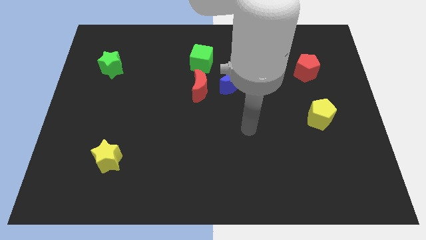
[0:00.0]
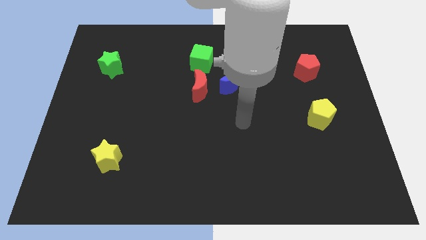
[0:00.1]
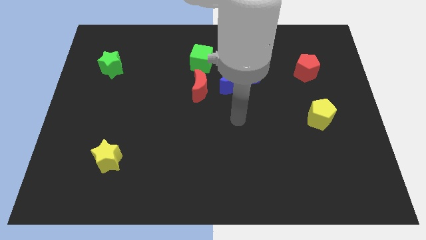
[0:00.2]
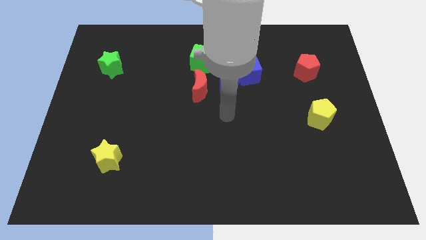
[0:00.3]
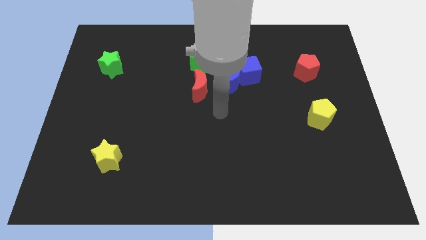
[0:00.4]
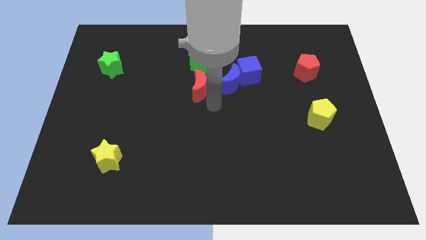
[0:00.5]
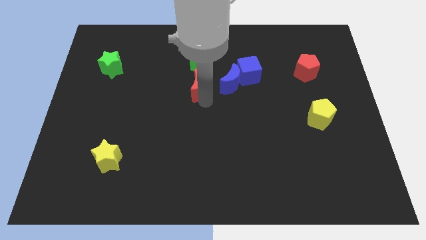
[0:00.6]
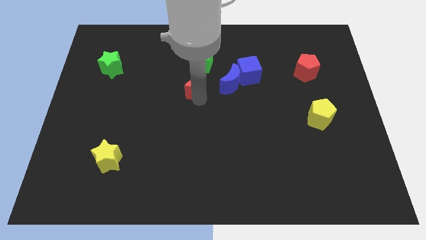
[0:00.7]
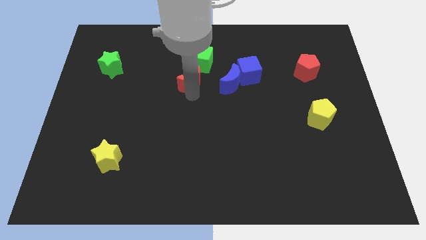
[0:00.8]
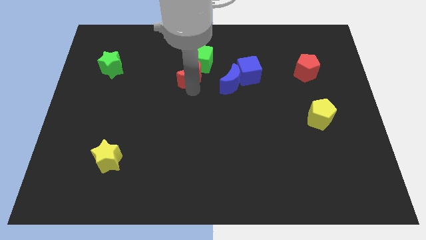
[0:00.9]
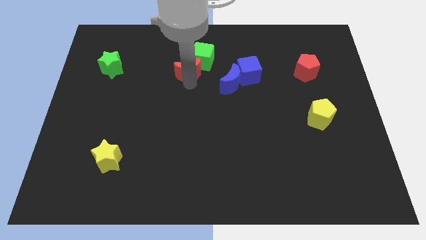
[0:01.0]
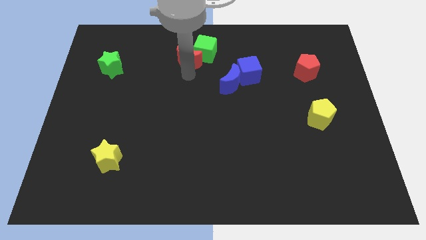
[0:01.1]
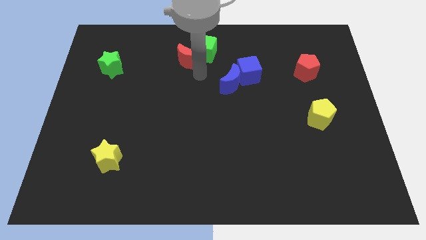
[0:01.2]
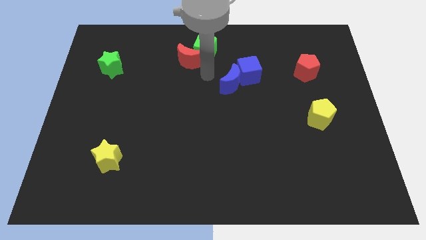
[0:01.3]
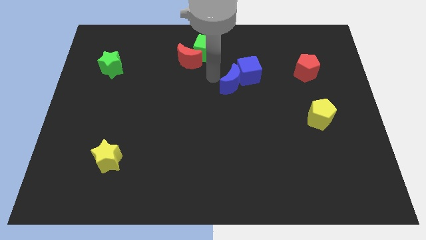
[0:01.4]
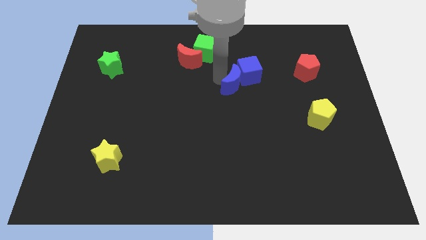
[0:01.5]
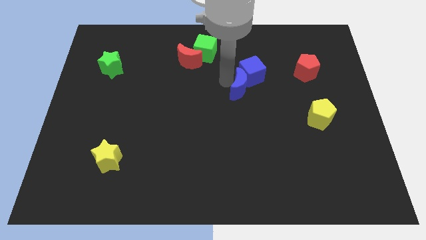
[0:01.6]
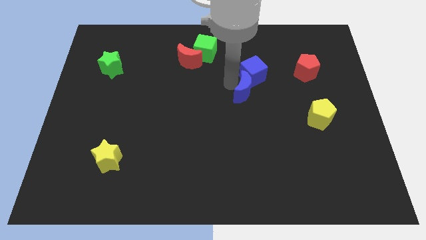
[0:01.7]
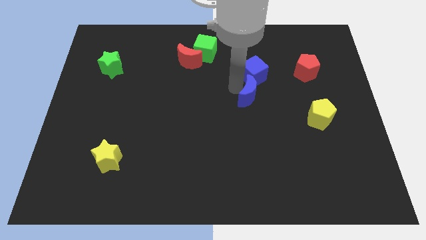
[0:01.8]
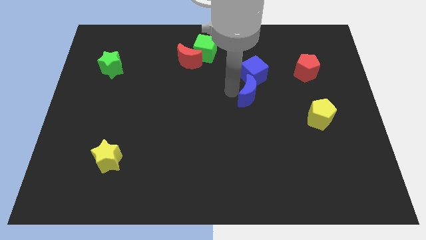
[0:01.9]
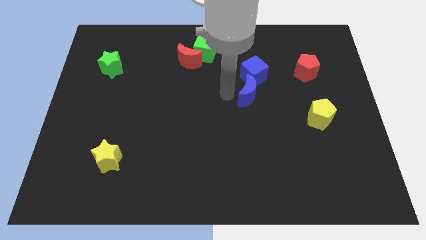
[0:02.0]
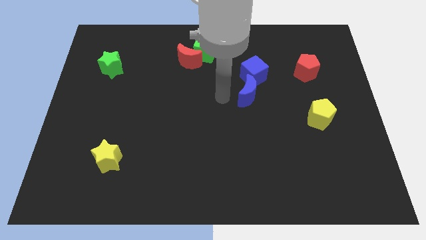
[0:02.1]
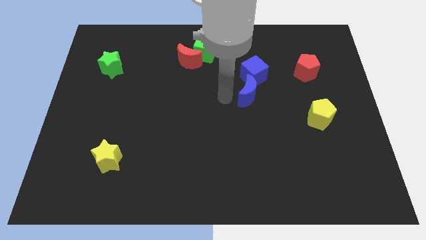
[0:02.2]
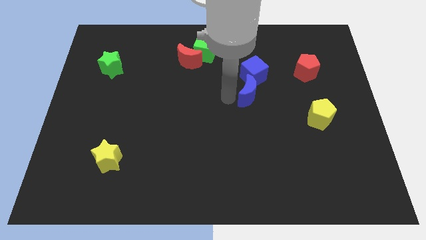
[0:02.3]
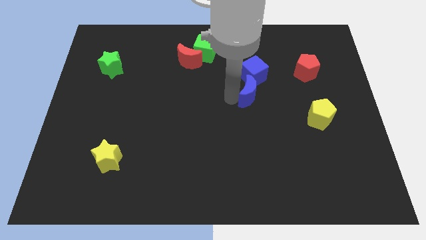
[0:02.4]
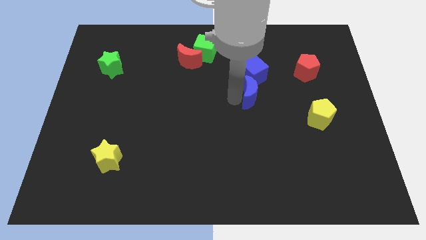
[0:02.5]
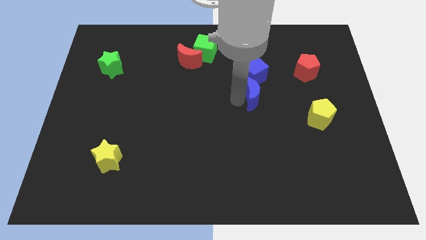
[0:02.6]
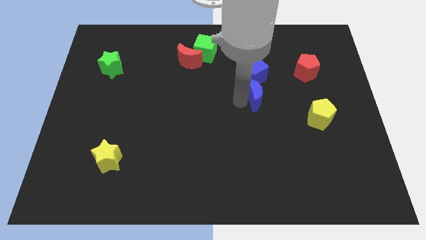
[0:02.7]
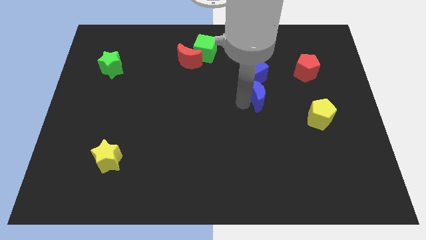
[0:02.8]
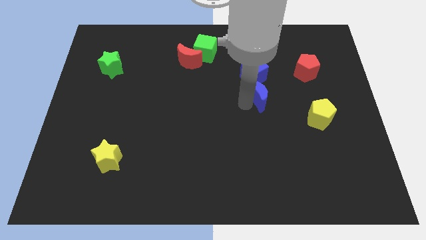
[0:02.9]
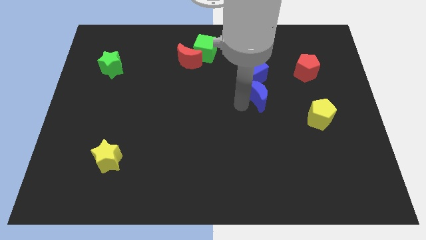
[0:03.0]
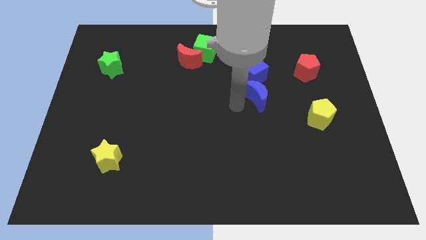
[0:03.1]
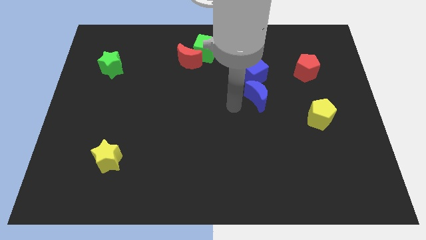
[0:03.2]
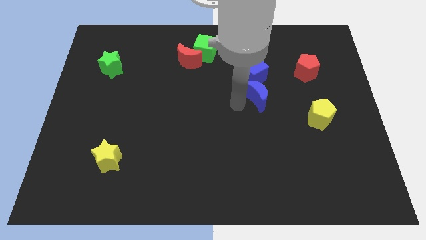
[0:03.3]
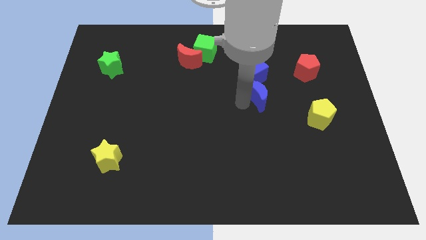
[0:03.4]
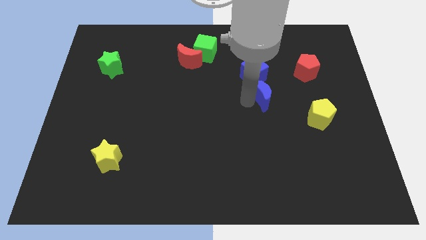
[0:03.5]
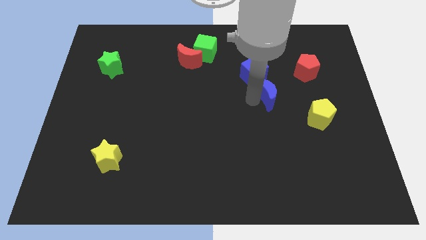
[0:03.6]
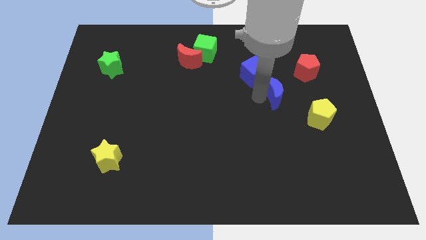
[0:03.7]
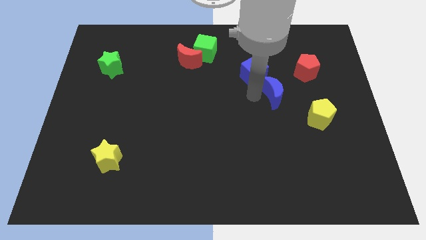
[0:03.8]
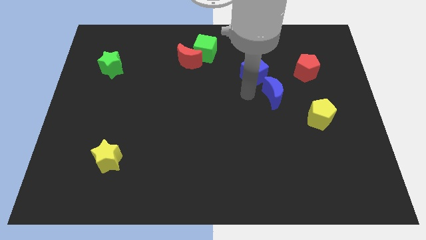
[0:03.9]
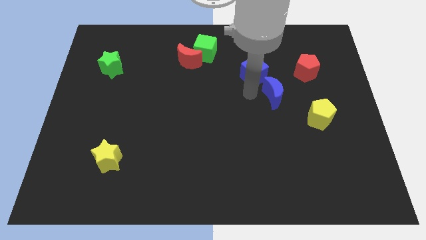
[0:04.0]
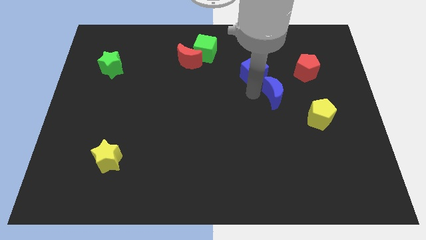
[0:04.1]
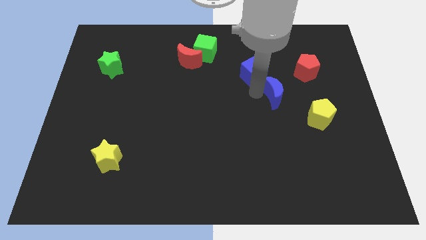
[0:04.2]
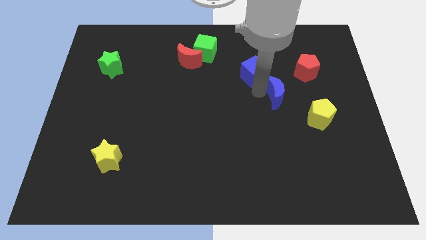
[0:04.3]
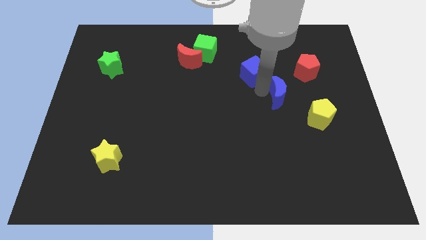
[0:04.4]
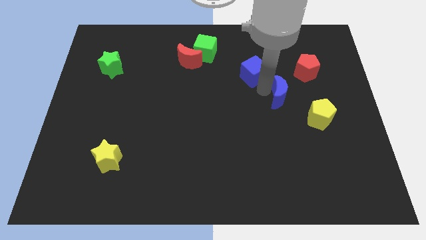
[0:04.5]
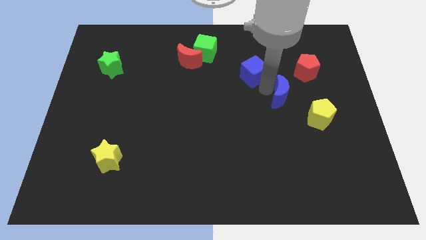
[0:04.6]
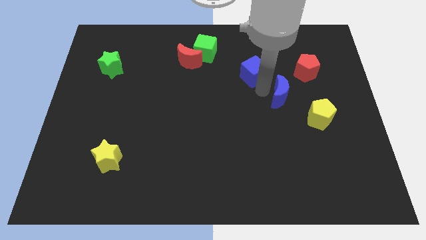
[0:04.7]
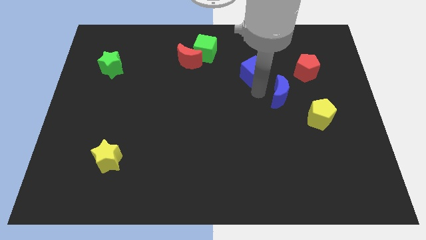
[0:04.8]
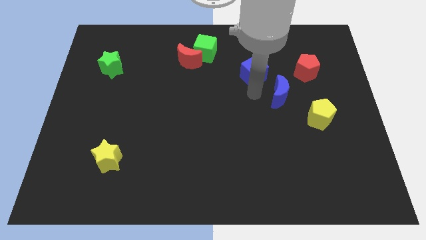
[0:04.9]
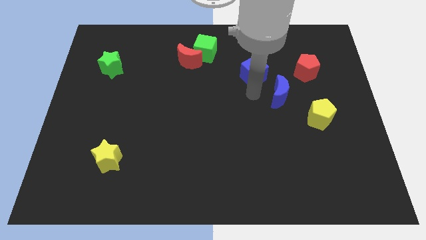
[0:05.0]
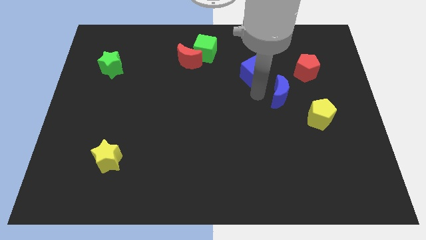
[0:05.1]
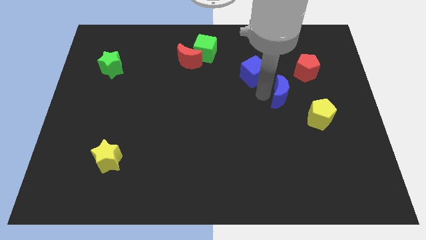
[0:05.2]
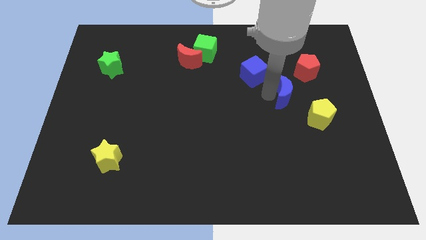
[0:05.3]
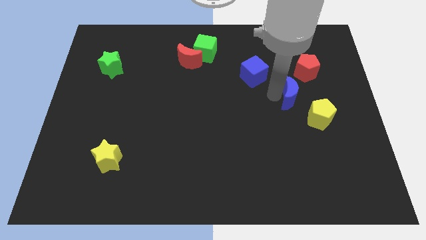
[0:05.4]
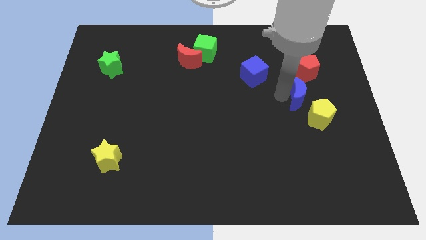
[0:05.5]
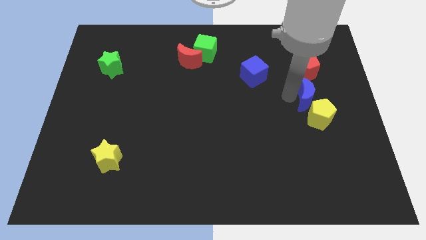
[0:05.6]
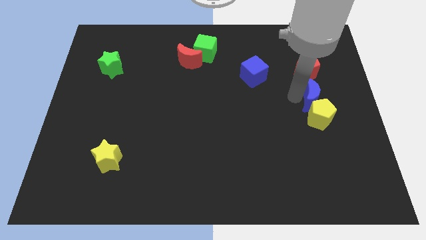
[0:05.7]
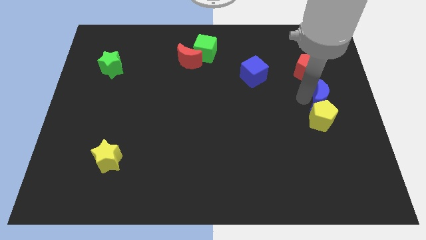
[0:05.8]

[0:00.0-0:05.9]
slide the blue moon to the center right
